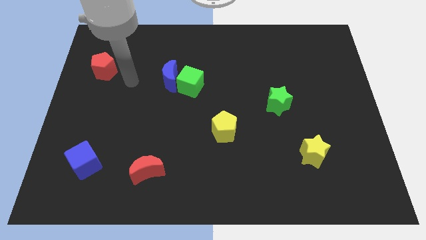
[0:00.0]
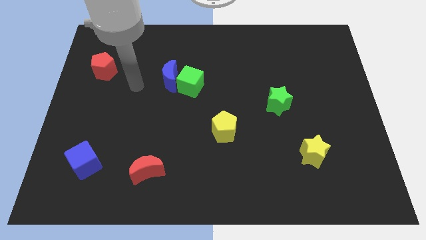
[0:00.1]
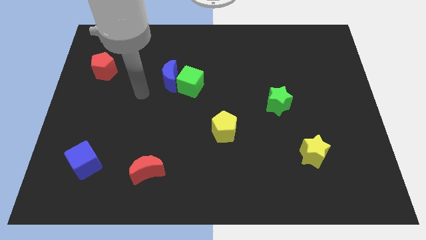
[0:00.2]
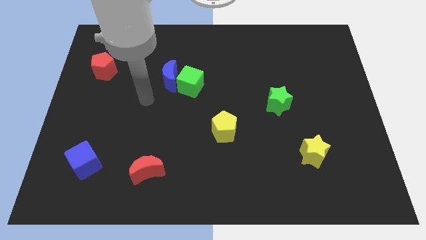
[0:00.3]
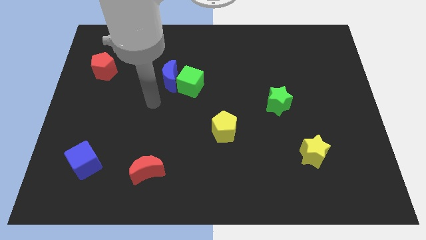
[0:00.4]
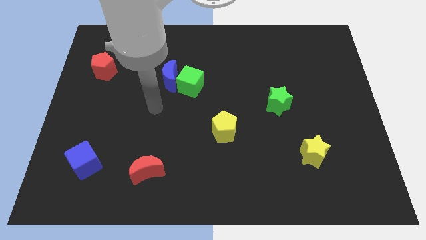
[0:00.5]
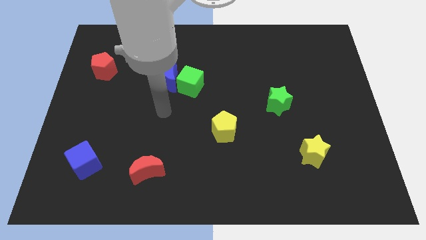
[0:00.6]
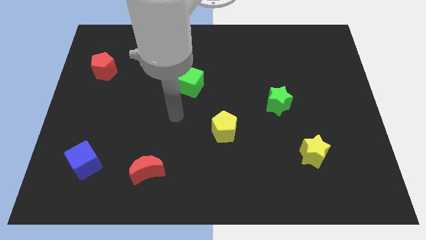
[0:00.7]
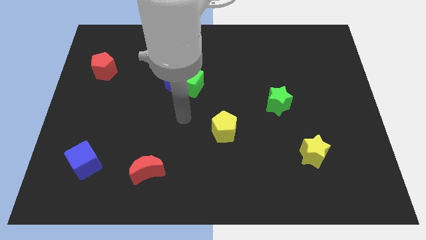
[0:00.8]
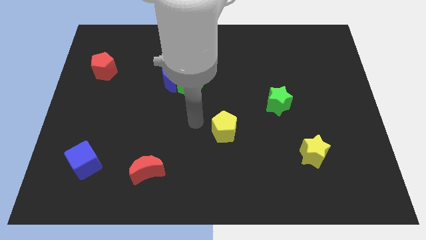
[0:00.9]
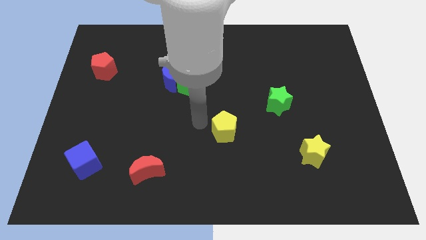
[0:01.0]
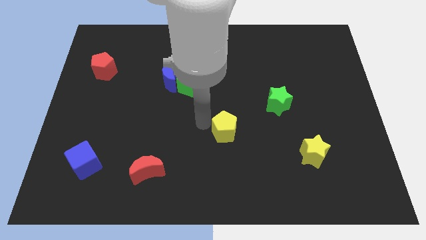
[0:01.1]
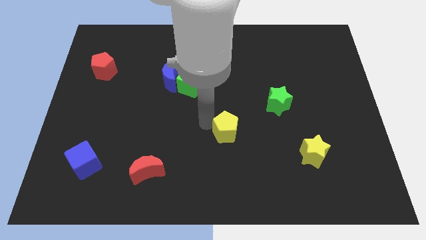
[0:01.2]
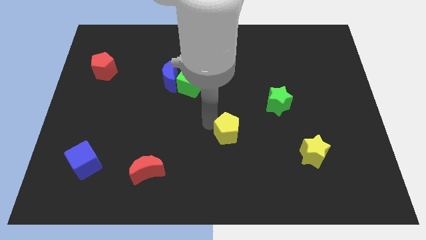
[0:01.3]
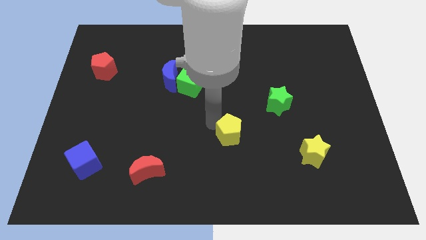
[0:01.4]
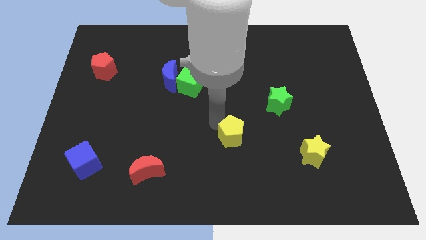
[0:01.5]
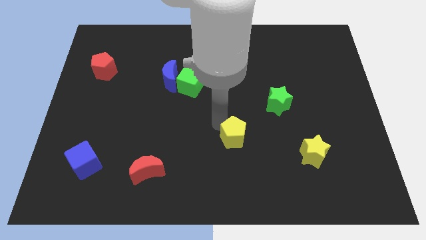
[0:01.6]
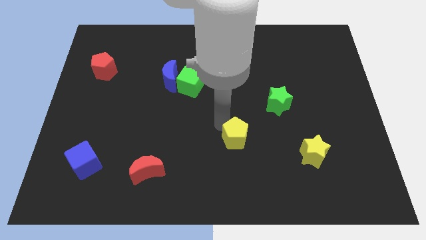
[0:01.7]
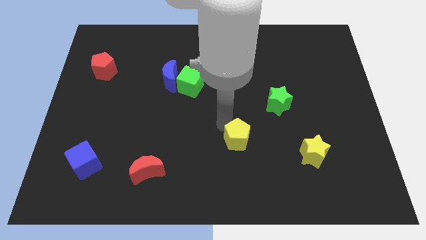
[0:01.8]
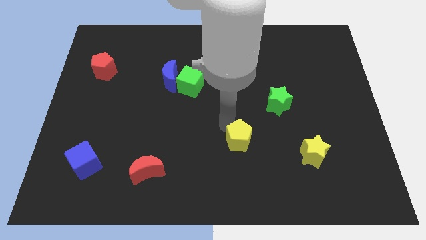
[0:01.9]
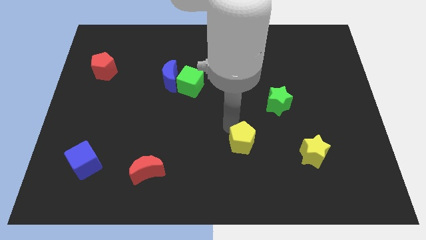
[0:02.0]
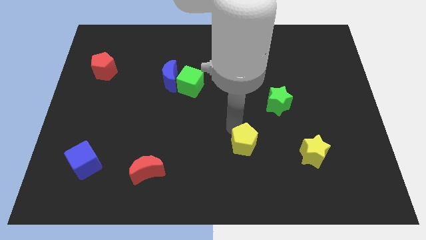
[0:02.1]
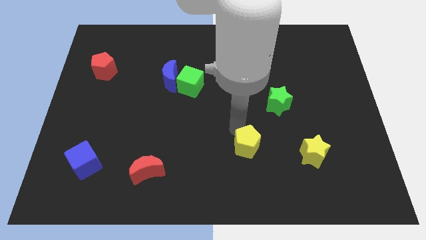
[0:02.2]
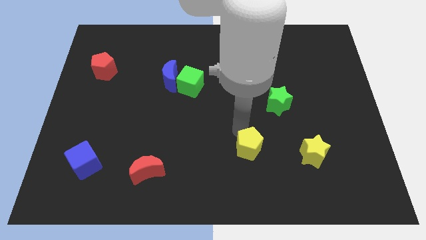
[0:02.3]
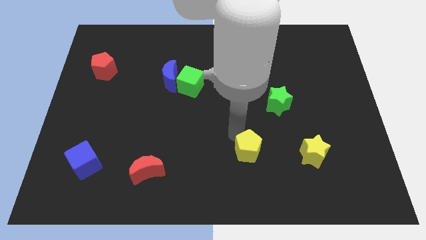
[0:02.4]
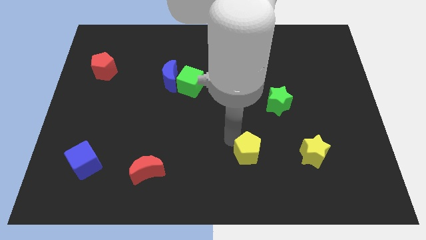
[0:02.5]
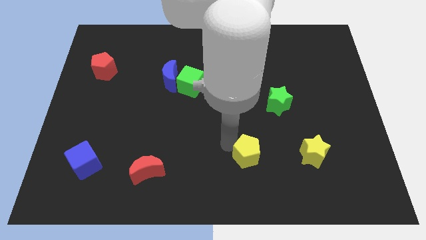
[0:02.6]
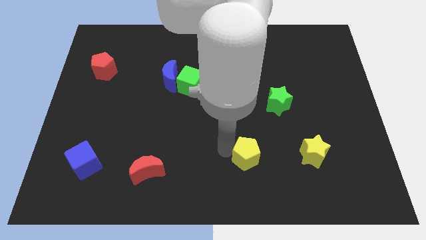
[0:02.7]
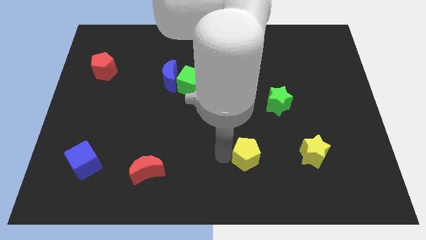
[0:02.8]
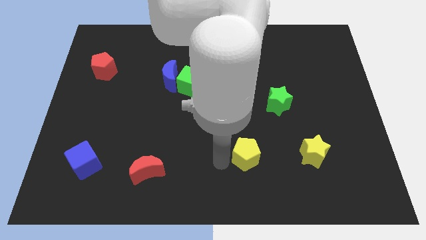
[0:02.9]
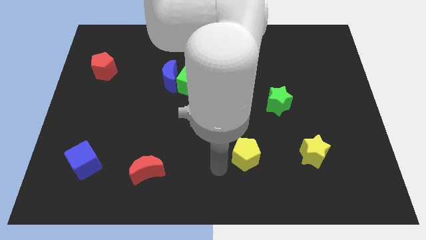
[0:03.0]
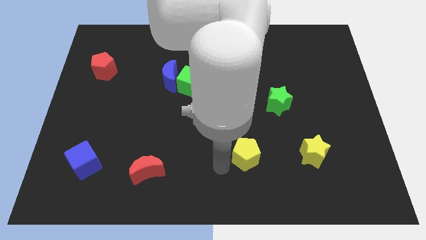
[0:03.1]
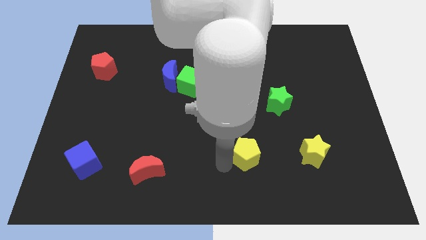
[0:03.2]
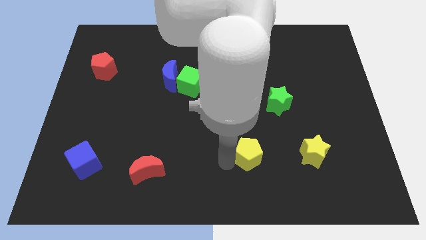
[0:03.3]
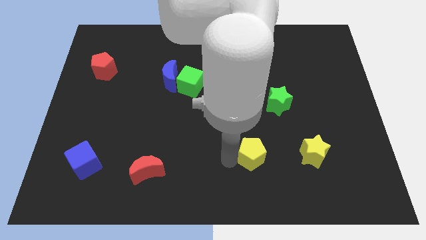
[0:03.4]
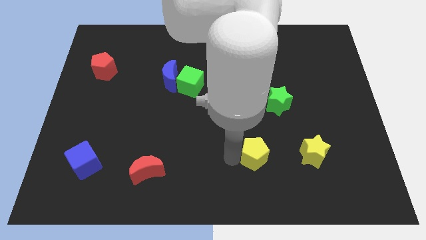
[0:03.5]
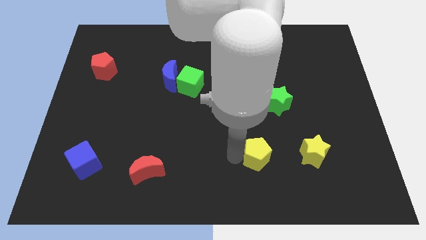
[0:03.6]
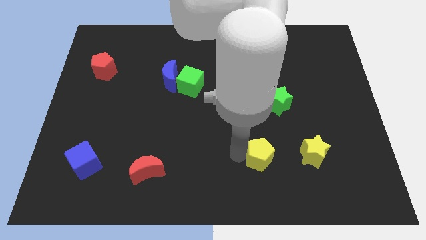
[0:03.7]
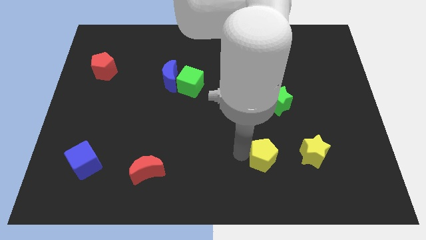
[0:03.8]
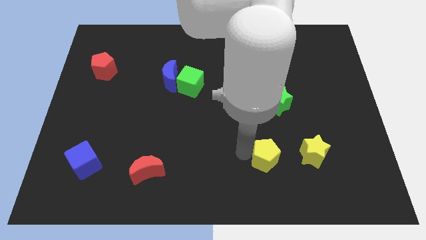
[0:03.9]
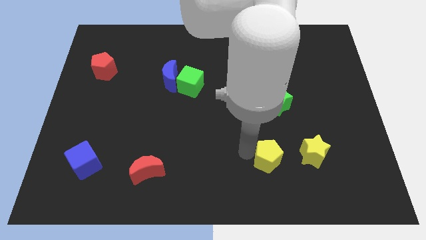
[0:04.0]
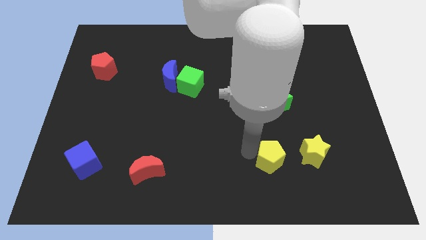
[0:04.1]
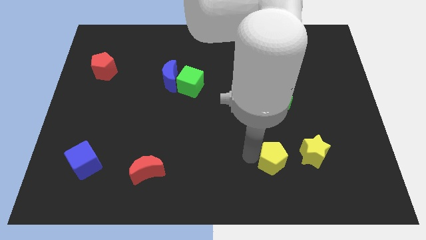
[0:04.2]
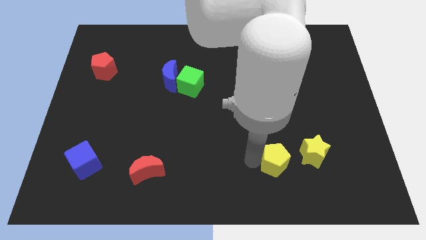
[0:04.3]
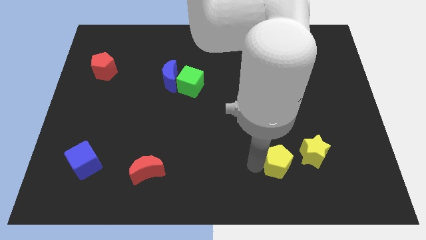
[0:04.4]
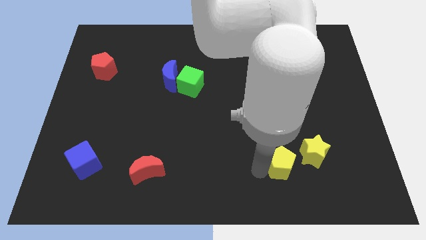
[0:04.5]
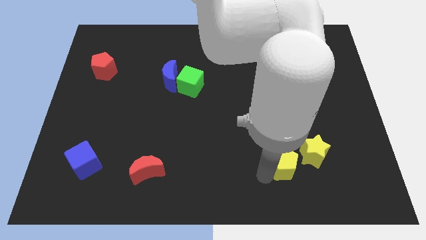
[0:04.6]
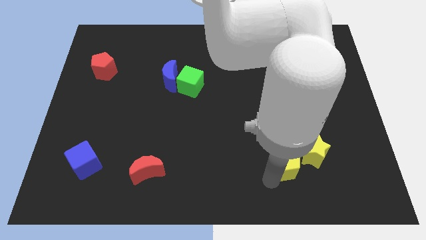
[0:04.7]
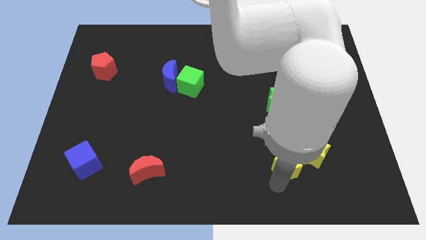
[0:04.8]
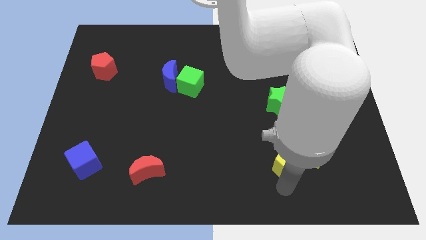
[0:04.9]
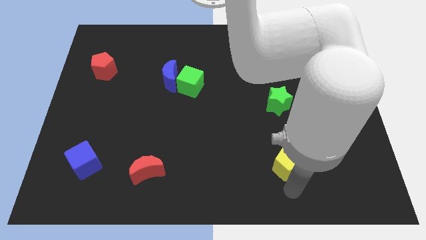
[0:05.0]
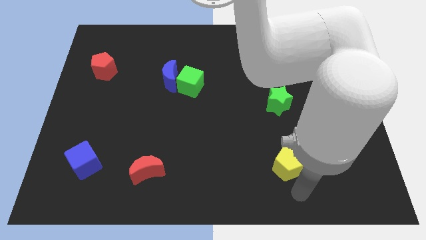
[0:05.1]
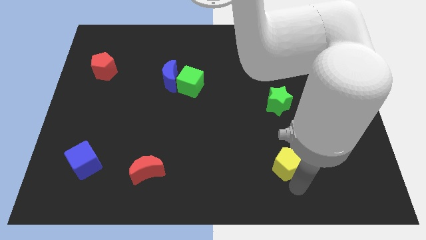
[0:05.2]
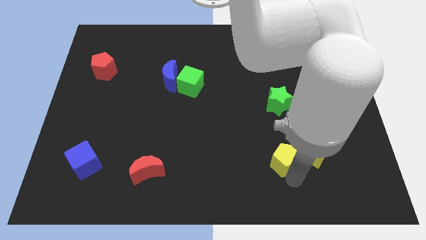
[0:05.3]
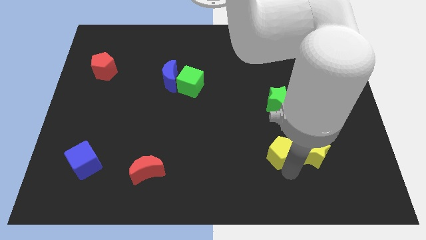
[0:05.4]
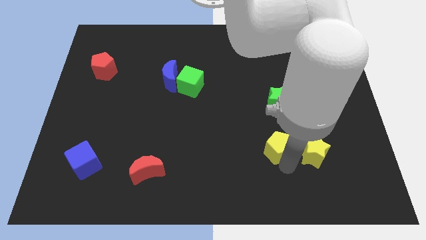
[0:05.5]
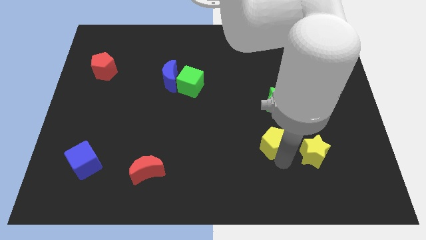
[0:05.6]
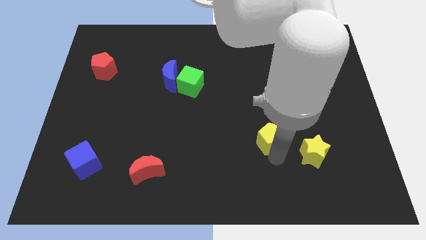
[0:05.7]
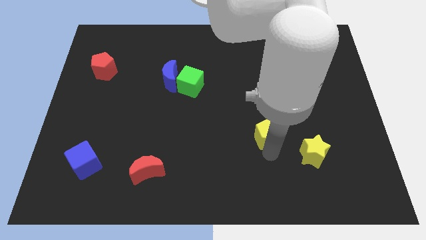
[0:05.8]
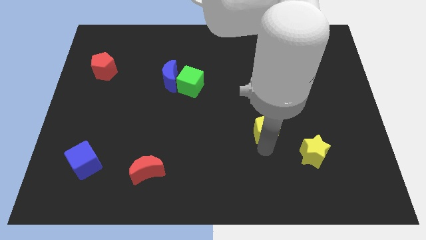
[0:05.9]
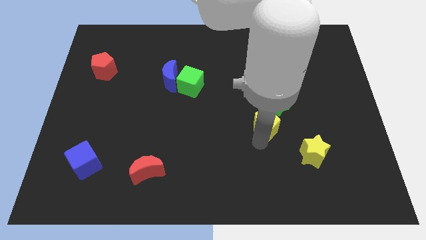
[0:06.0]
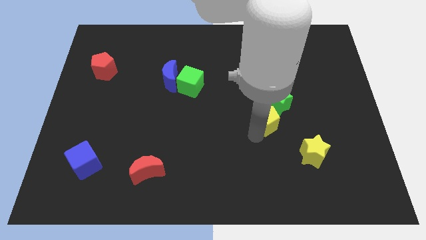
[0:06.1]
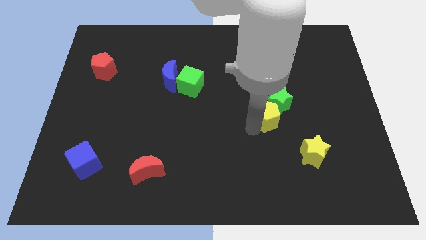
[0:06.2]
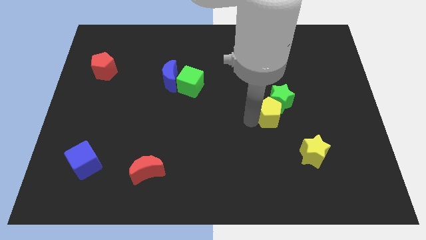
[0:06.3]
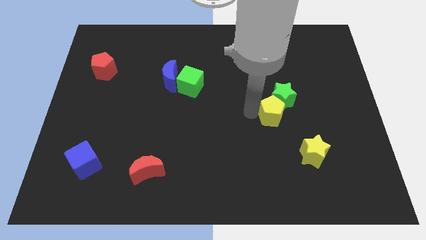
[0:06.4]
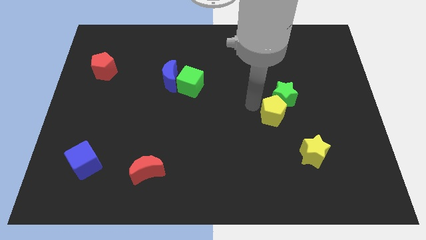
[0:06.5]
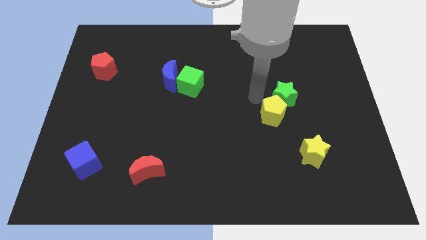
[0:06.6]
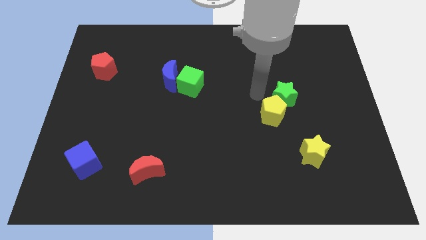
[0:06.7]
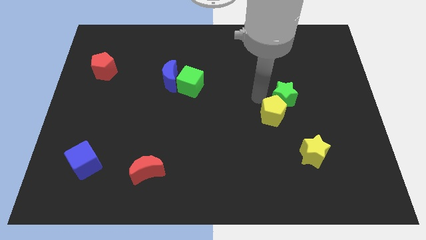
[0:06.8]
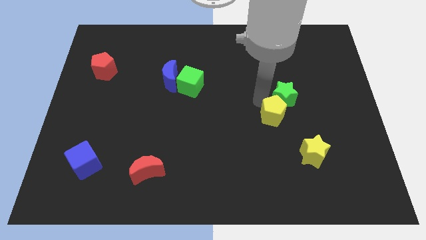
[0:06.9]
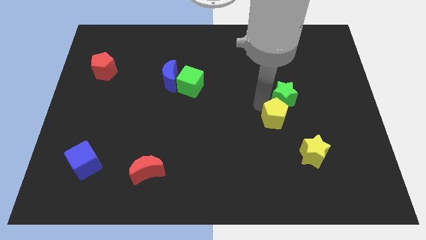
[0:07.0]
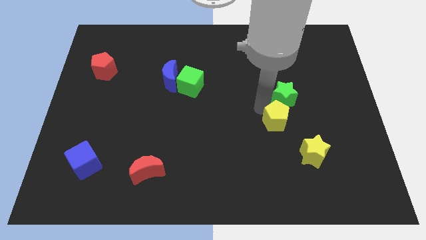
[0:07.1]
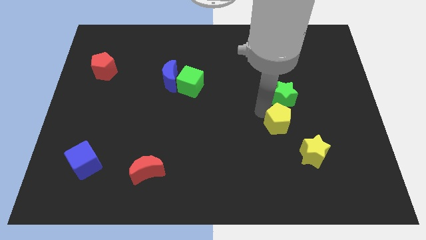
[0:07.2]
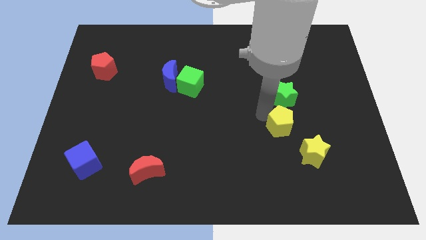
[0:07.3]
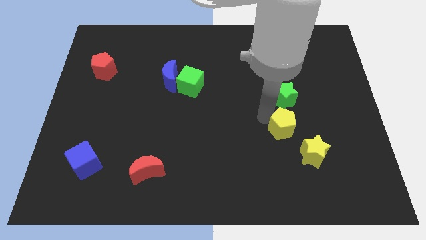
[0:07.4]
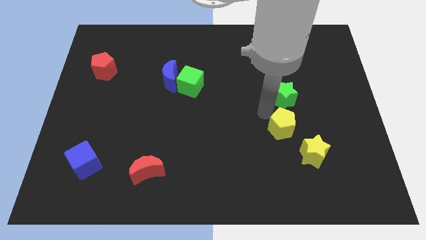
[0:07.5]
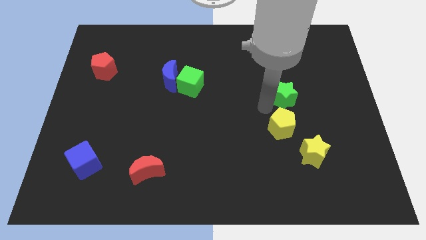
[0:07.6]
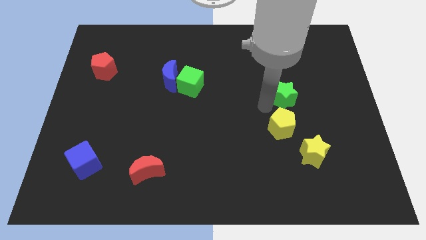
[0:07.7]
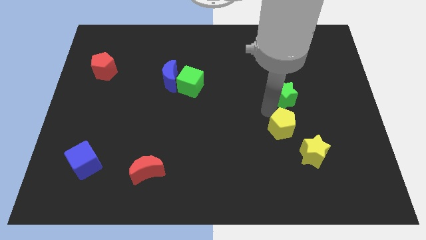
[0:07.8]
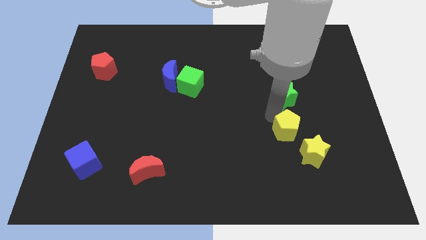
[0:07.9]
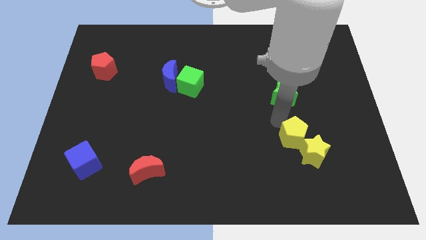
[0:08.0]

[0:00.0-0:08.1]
move the yellow pentagon to the yellow star
